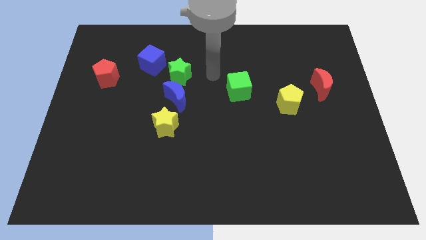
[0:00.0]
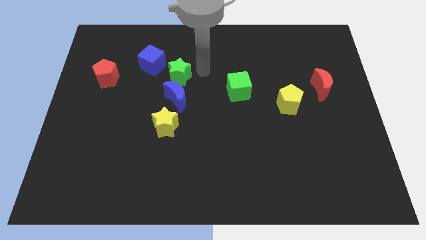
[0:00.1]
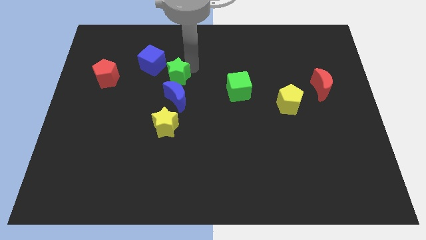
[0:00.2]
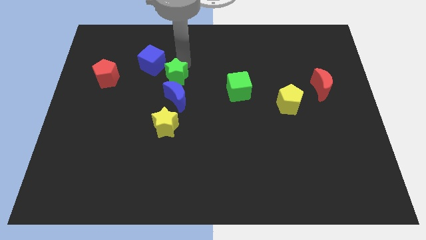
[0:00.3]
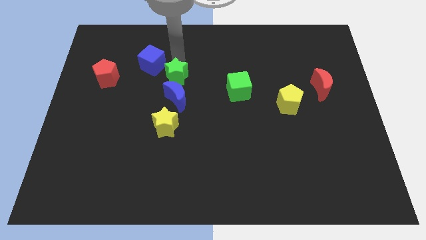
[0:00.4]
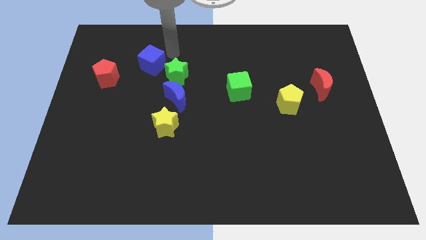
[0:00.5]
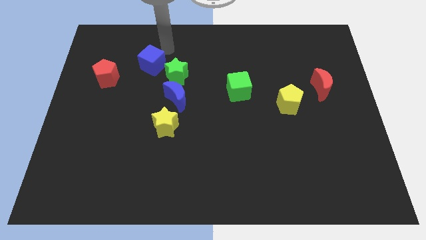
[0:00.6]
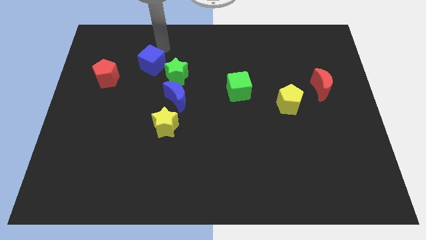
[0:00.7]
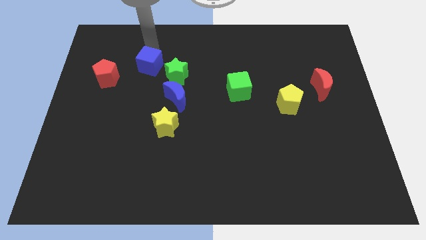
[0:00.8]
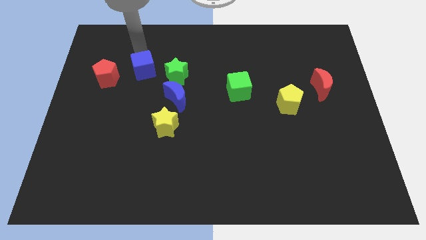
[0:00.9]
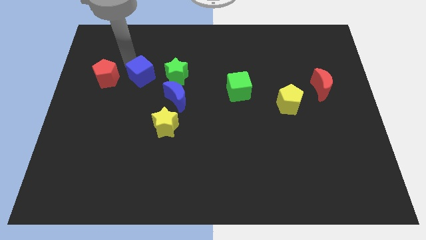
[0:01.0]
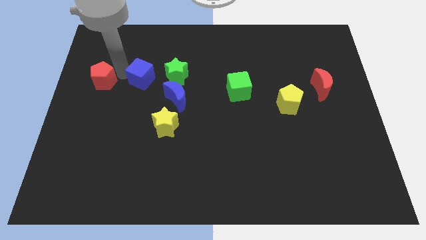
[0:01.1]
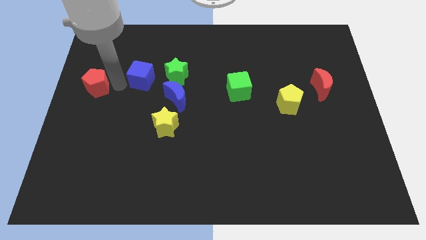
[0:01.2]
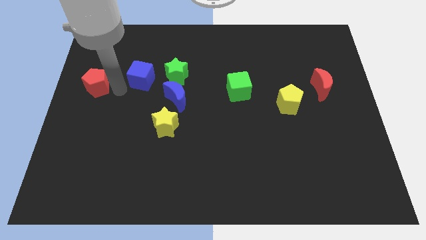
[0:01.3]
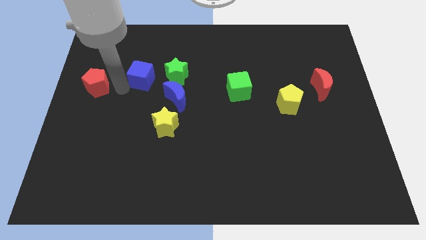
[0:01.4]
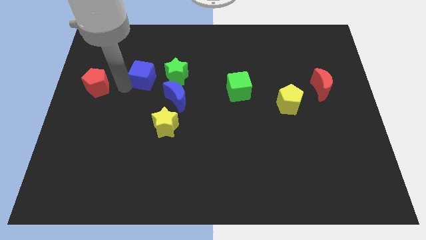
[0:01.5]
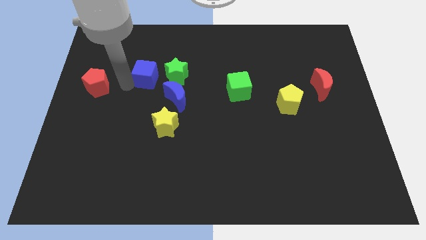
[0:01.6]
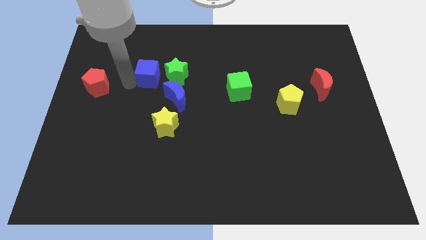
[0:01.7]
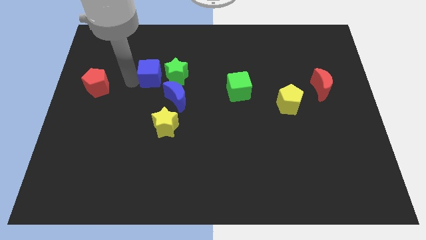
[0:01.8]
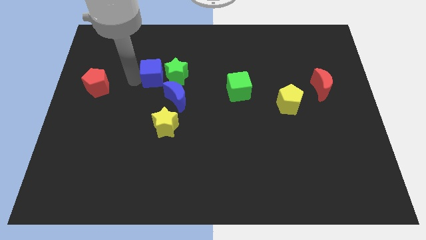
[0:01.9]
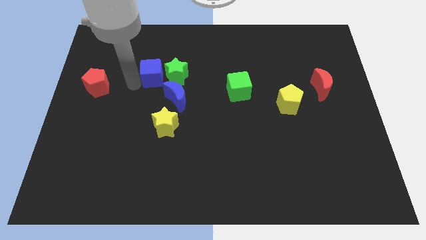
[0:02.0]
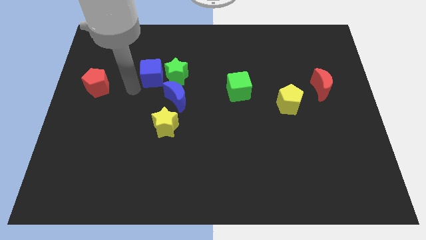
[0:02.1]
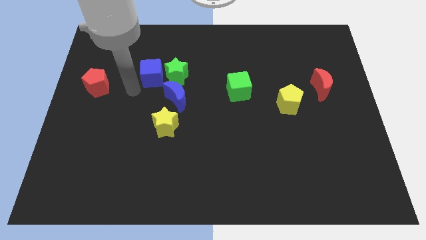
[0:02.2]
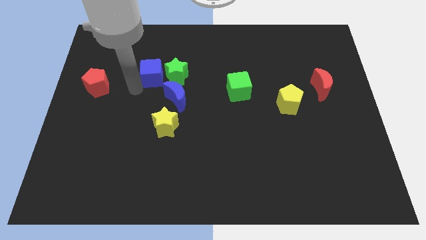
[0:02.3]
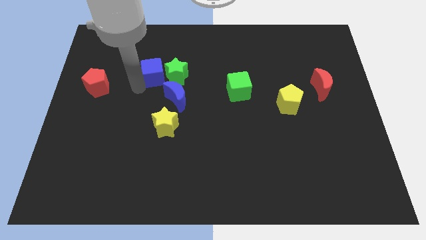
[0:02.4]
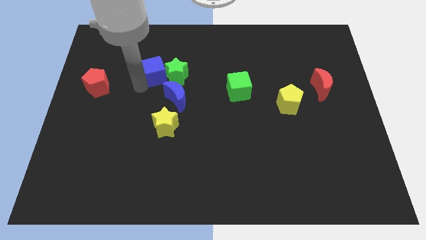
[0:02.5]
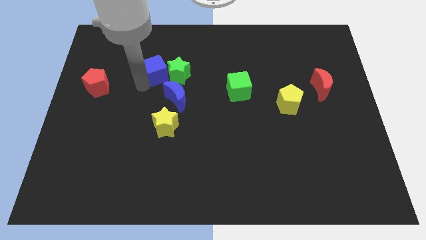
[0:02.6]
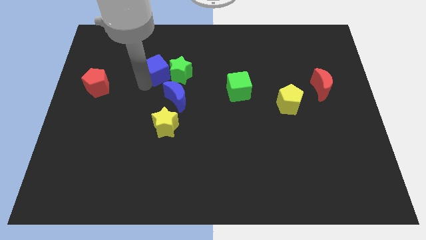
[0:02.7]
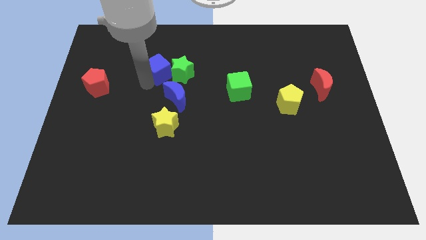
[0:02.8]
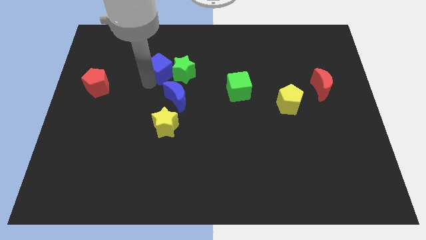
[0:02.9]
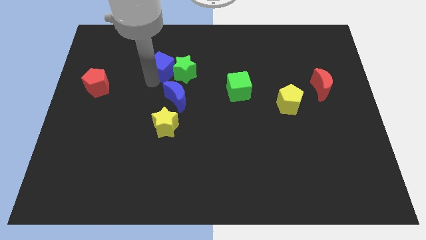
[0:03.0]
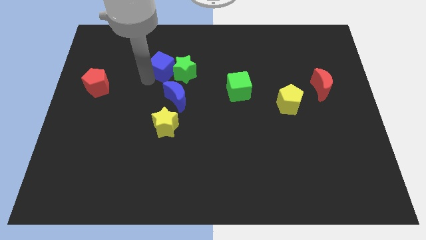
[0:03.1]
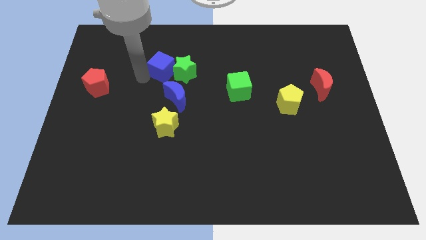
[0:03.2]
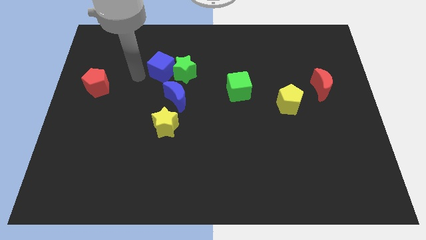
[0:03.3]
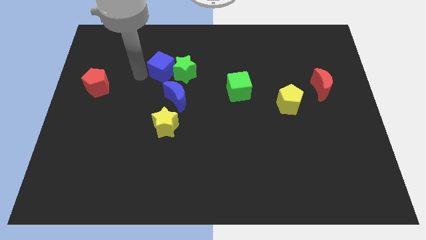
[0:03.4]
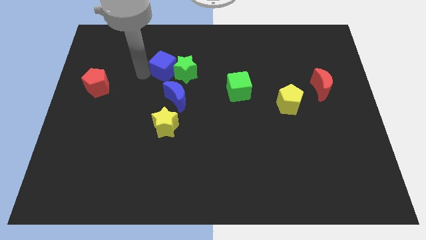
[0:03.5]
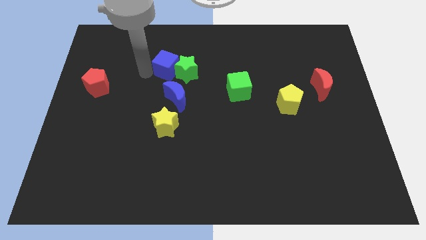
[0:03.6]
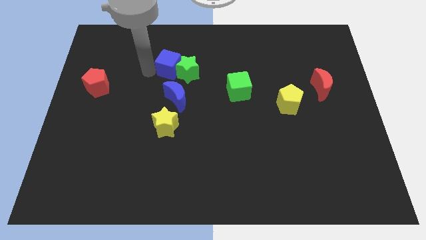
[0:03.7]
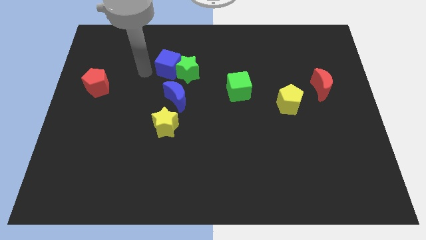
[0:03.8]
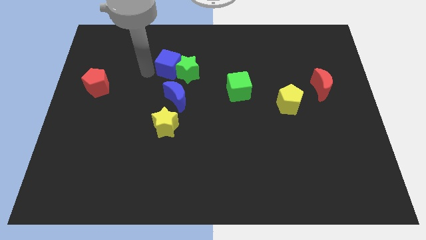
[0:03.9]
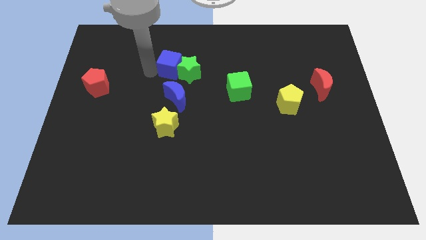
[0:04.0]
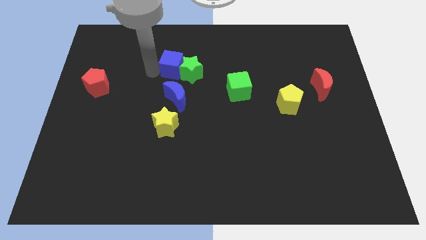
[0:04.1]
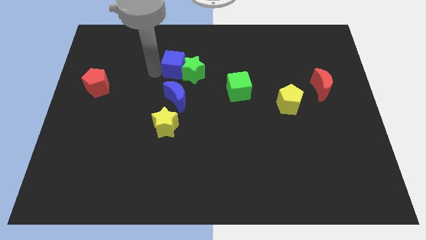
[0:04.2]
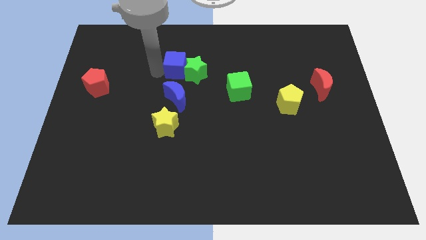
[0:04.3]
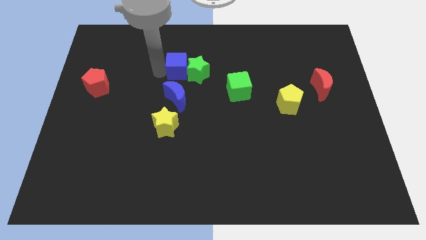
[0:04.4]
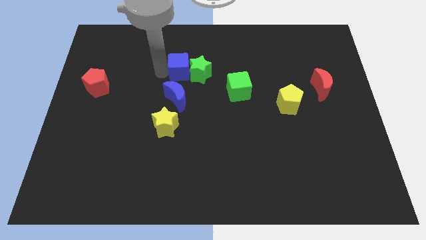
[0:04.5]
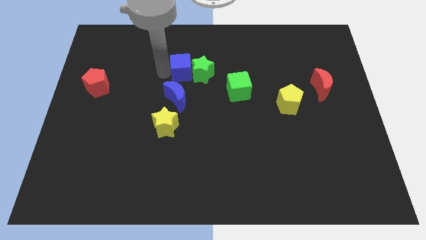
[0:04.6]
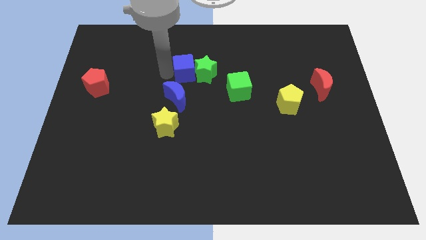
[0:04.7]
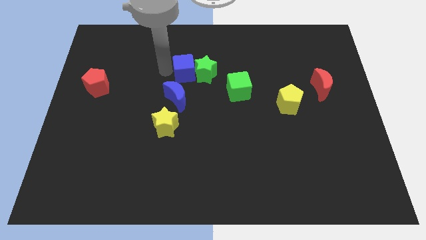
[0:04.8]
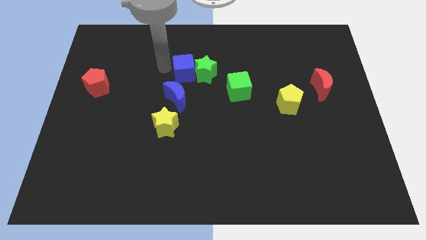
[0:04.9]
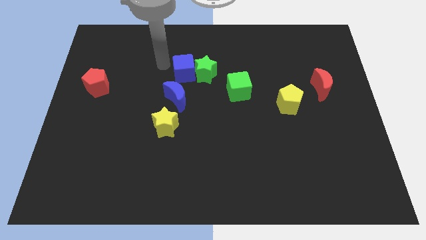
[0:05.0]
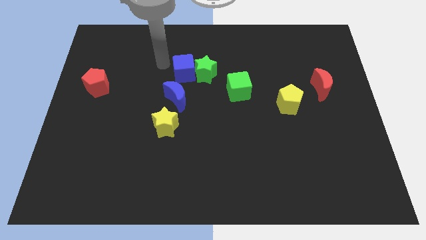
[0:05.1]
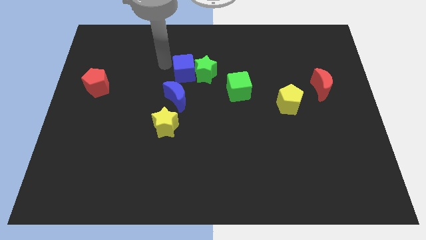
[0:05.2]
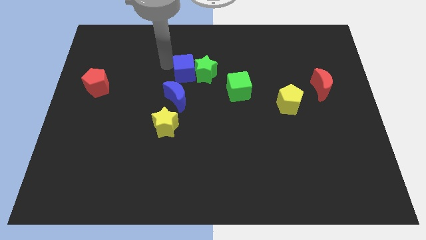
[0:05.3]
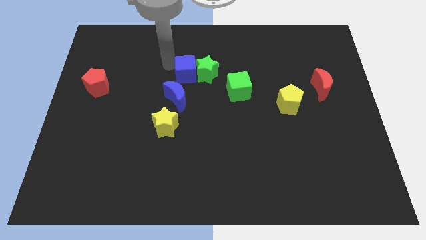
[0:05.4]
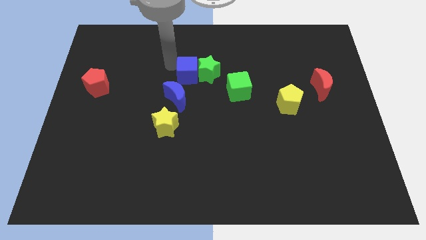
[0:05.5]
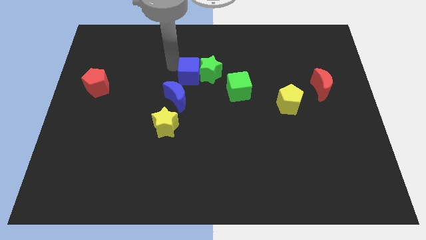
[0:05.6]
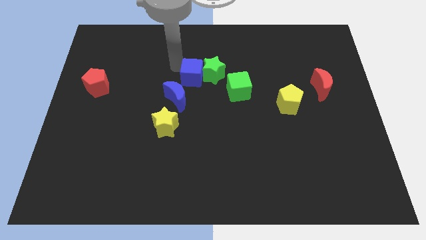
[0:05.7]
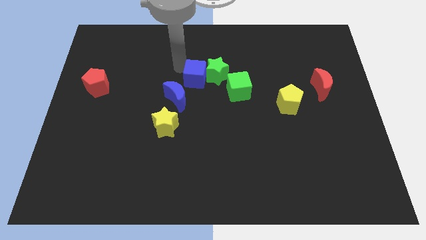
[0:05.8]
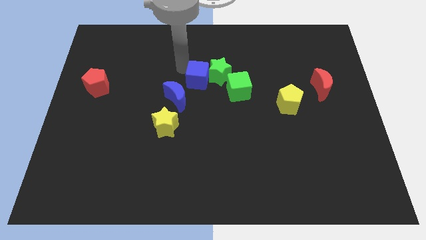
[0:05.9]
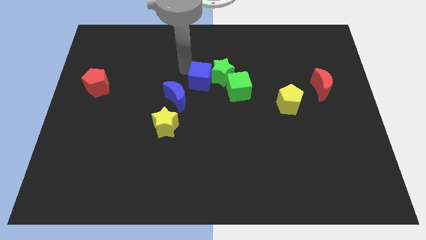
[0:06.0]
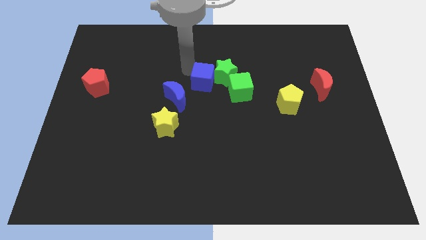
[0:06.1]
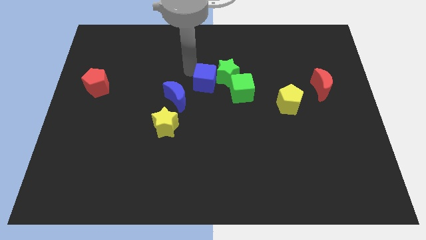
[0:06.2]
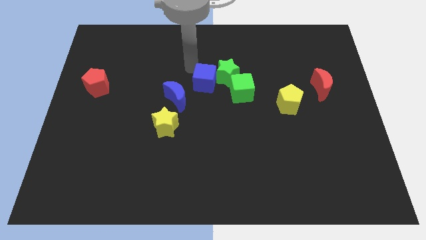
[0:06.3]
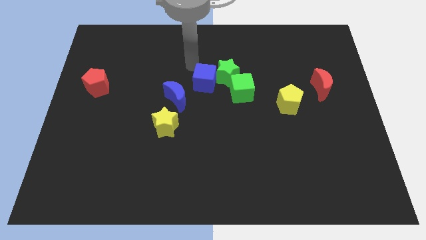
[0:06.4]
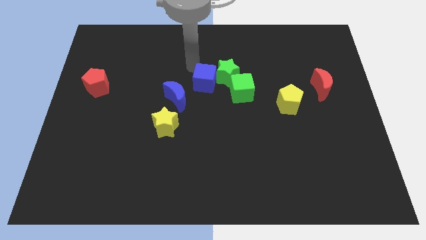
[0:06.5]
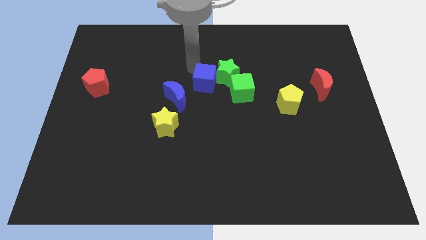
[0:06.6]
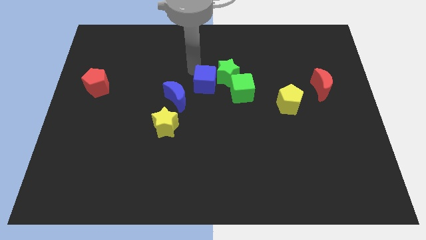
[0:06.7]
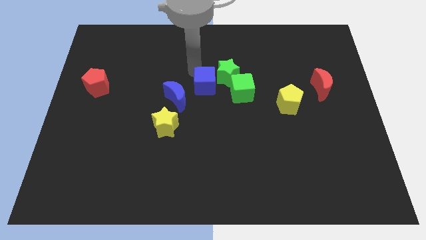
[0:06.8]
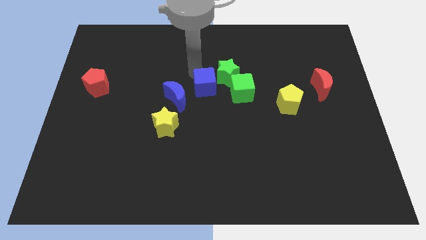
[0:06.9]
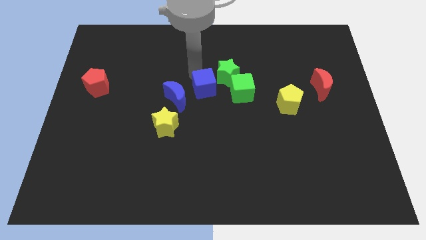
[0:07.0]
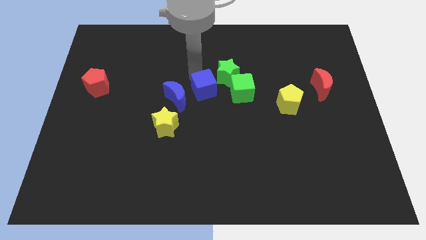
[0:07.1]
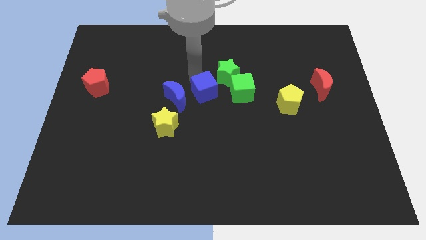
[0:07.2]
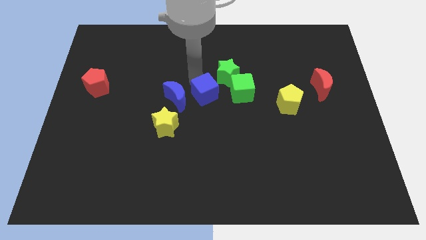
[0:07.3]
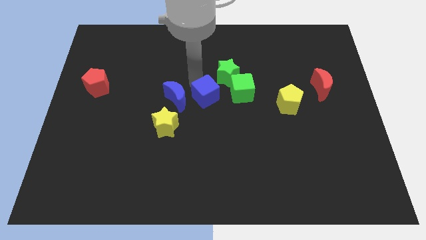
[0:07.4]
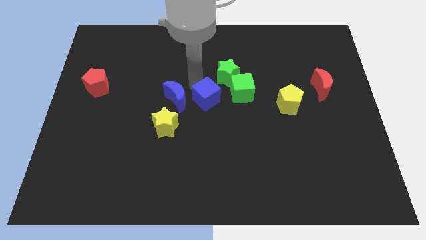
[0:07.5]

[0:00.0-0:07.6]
put the blue cube to the bottom left side of the green cube
